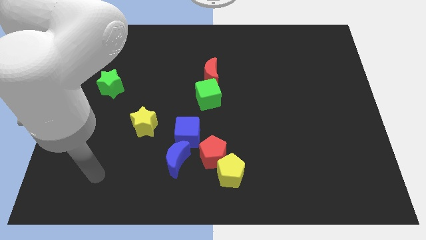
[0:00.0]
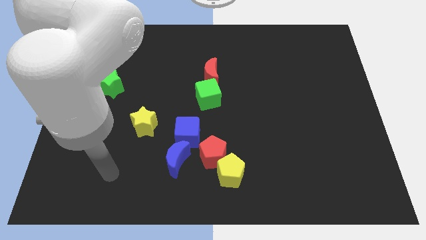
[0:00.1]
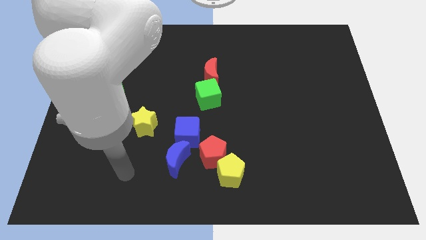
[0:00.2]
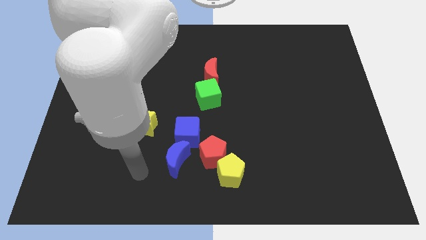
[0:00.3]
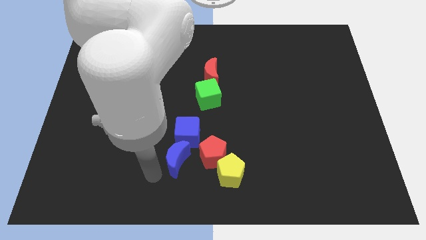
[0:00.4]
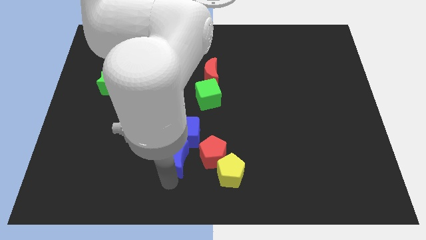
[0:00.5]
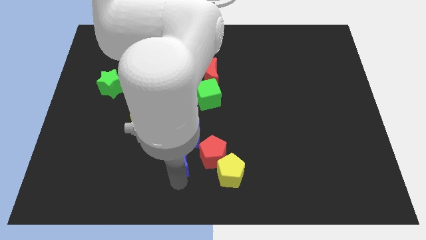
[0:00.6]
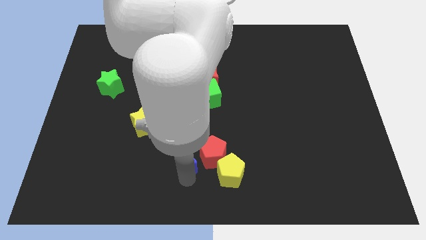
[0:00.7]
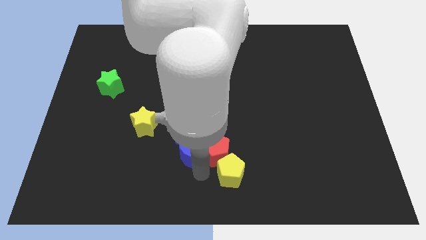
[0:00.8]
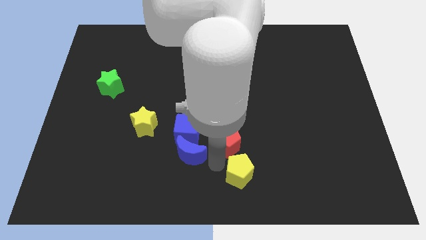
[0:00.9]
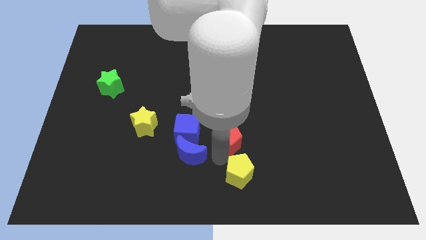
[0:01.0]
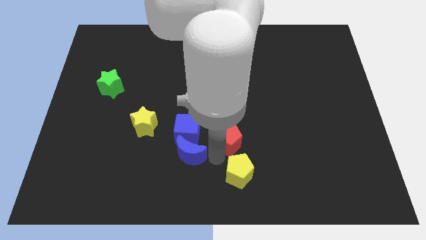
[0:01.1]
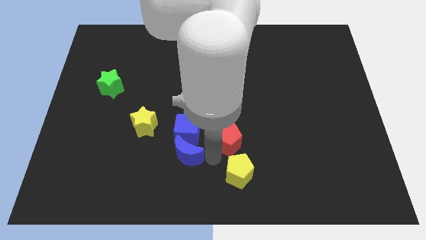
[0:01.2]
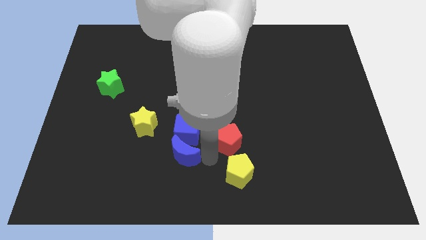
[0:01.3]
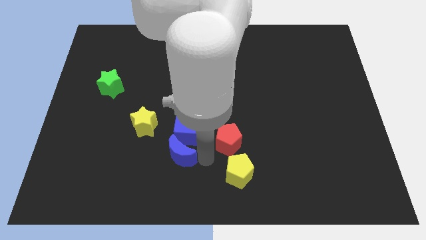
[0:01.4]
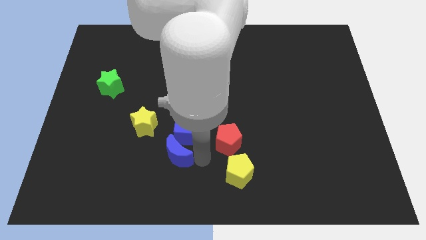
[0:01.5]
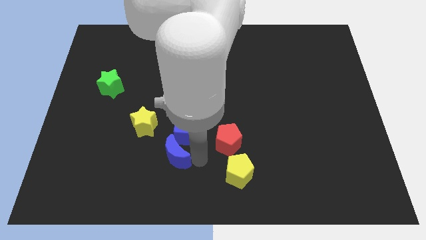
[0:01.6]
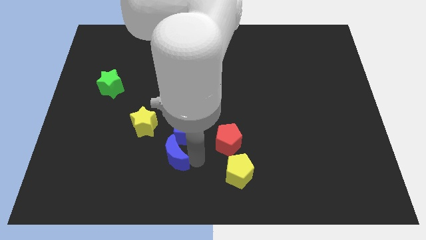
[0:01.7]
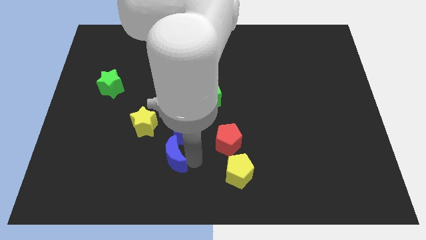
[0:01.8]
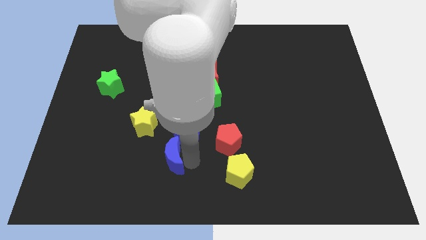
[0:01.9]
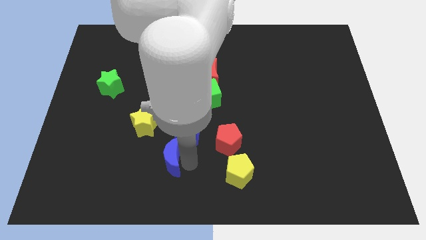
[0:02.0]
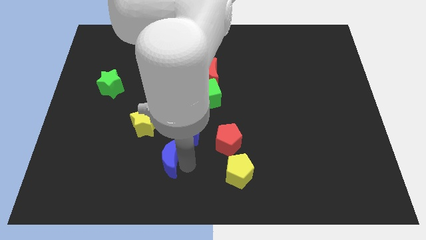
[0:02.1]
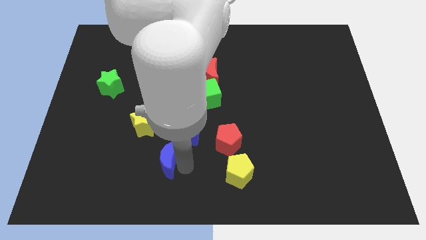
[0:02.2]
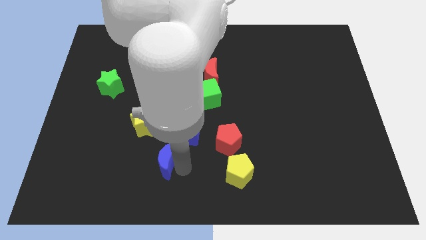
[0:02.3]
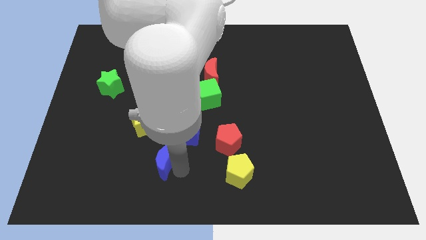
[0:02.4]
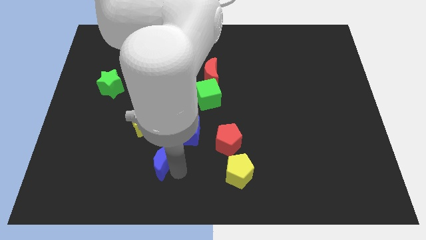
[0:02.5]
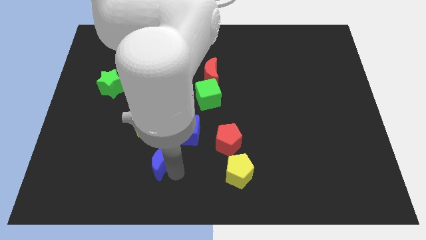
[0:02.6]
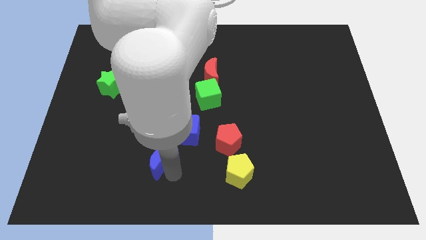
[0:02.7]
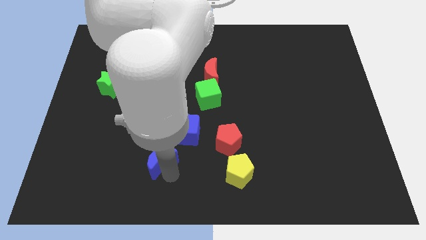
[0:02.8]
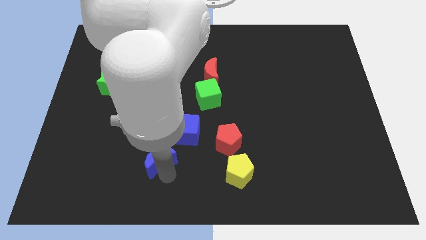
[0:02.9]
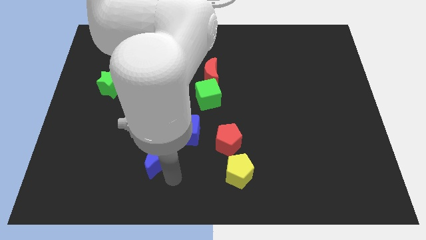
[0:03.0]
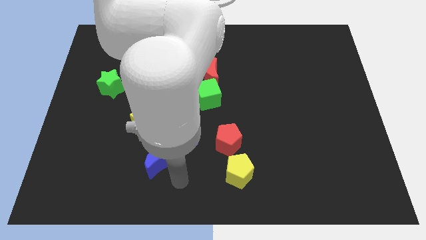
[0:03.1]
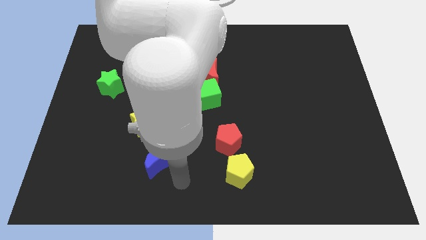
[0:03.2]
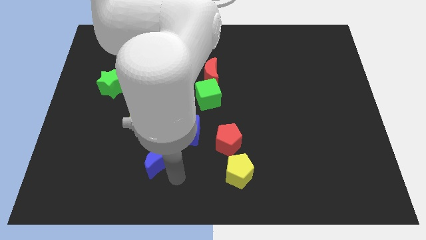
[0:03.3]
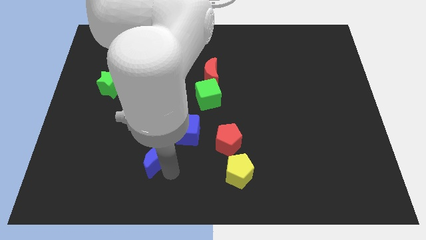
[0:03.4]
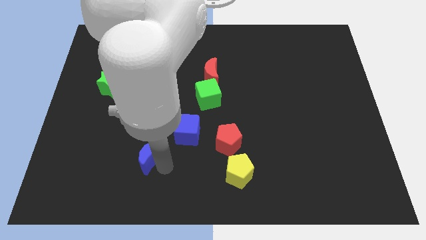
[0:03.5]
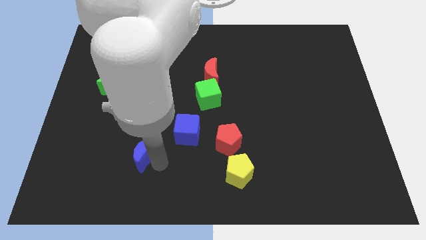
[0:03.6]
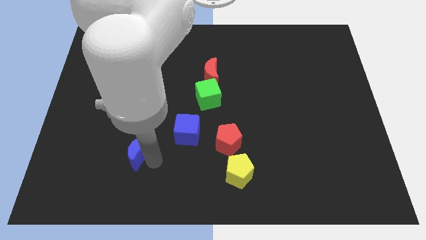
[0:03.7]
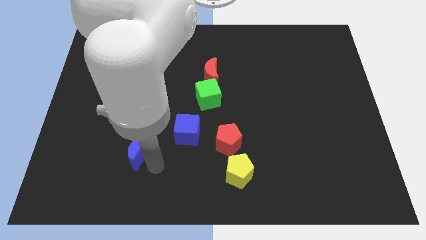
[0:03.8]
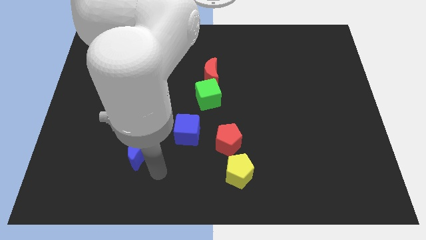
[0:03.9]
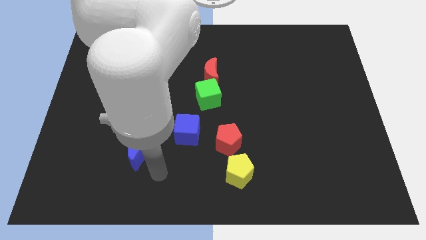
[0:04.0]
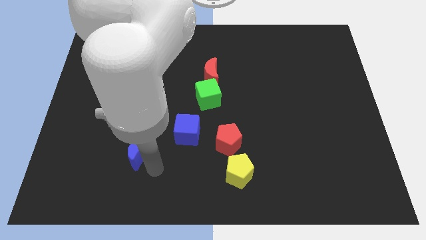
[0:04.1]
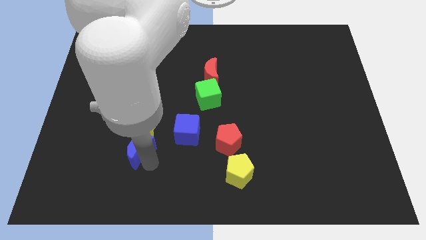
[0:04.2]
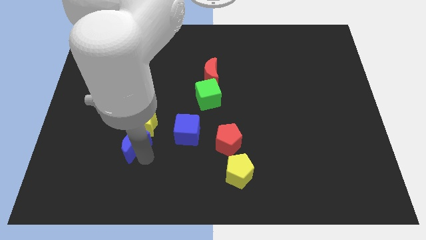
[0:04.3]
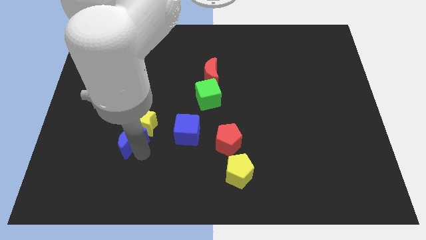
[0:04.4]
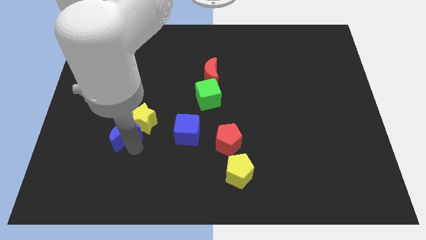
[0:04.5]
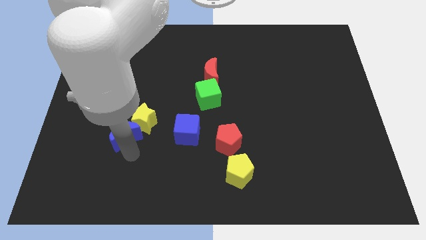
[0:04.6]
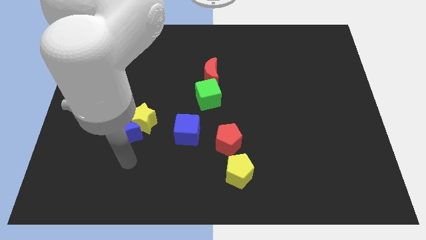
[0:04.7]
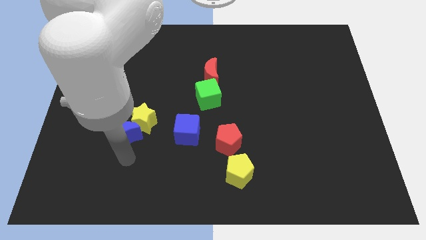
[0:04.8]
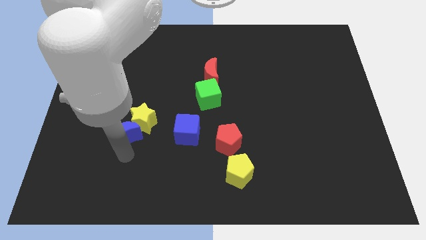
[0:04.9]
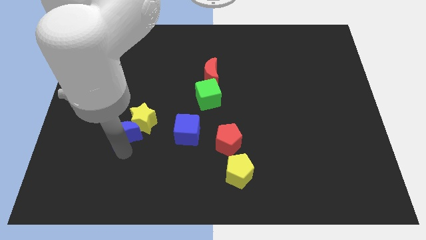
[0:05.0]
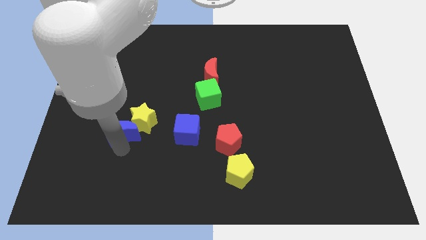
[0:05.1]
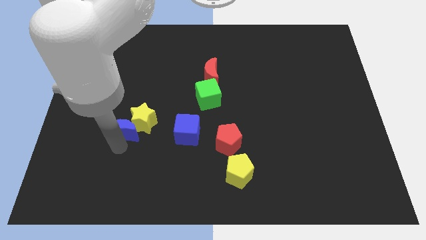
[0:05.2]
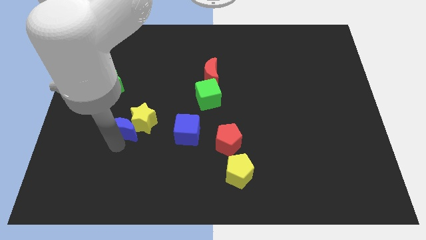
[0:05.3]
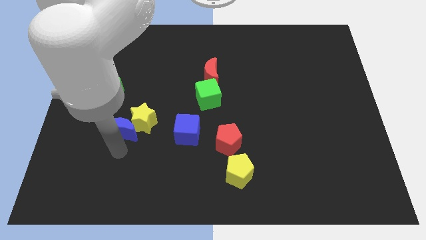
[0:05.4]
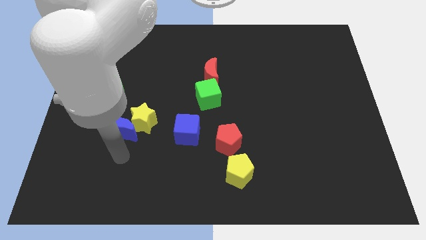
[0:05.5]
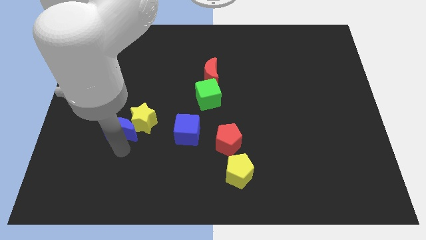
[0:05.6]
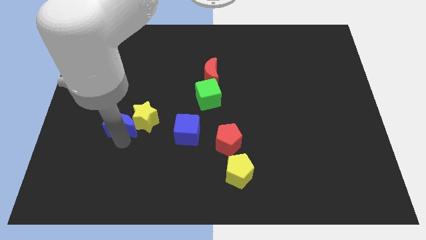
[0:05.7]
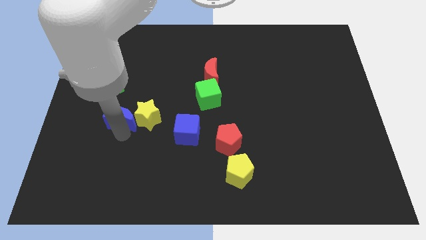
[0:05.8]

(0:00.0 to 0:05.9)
move the blue moon to the top left of the yellow star

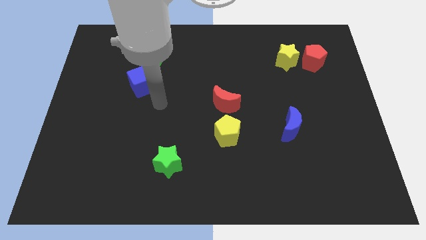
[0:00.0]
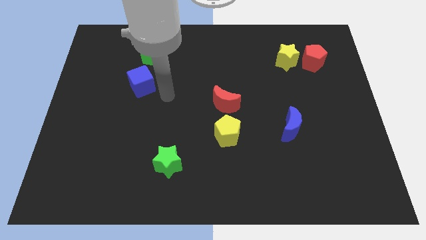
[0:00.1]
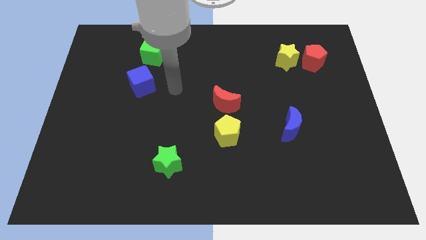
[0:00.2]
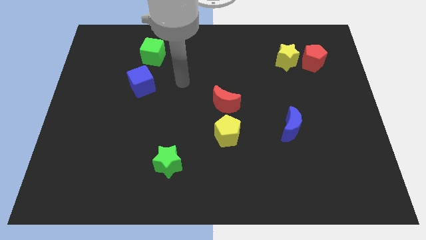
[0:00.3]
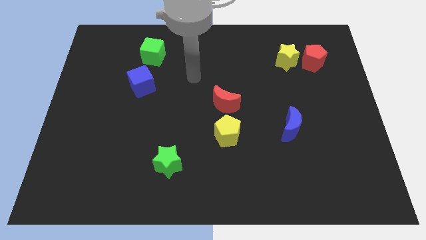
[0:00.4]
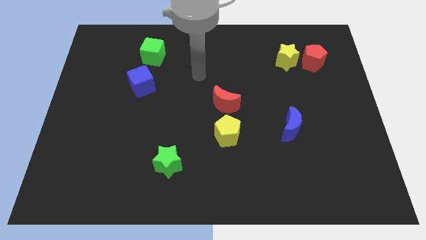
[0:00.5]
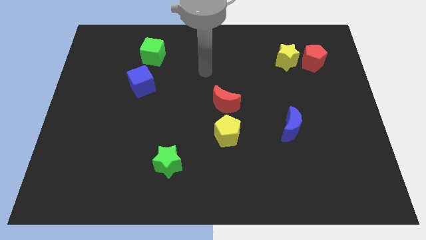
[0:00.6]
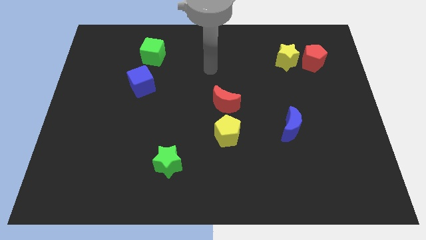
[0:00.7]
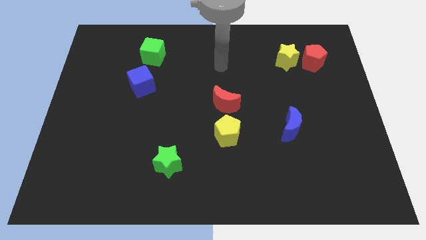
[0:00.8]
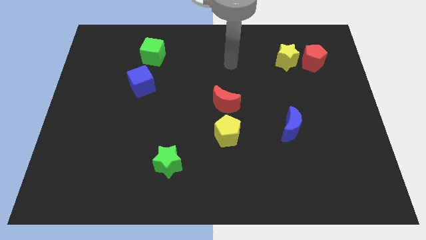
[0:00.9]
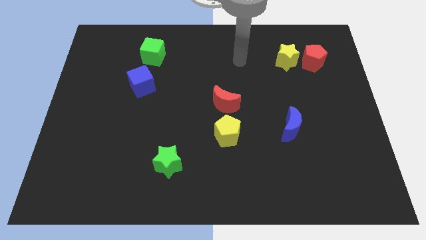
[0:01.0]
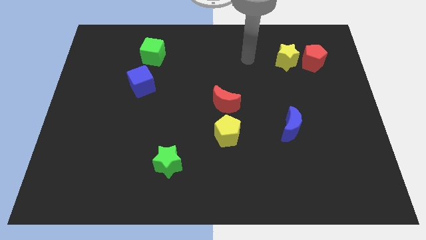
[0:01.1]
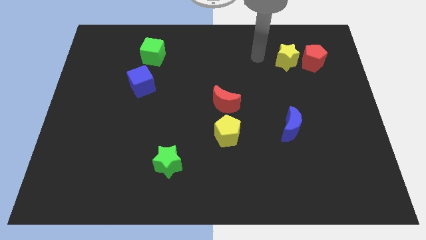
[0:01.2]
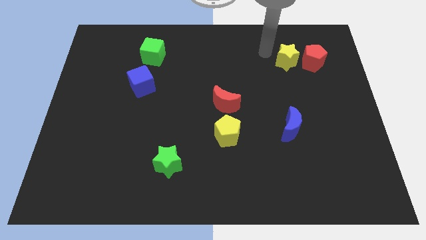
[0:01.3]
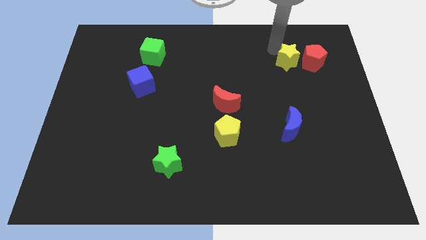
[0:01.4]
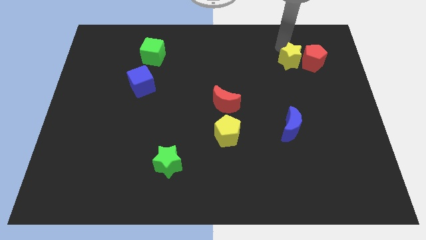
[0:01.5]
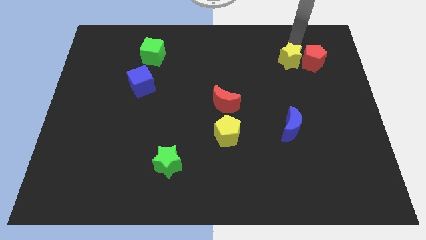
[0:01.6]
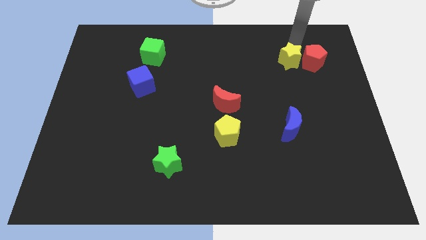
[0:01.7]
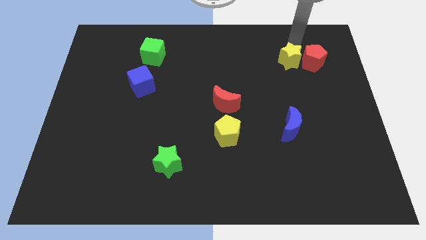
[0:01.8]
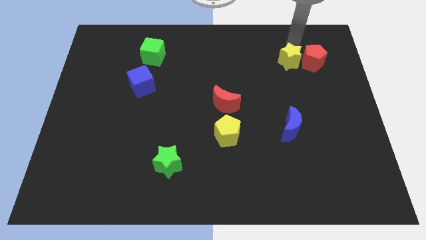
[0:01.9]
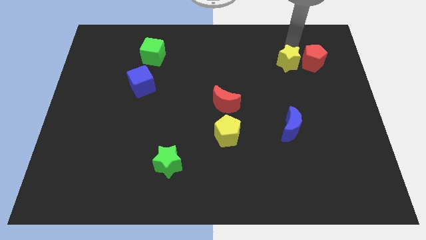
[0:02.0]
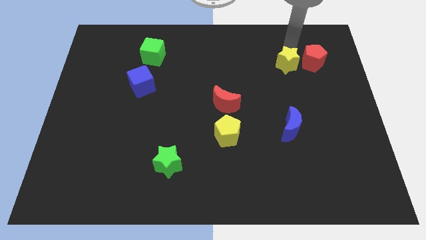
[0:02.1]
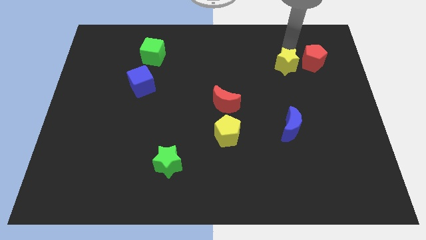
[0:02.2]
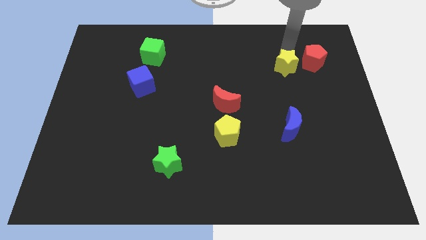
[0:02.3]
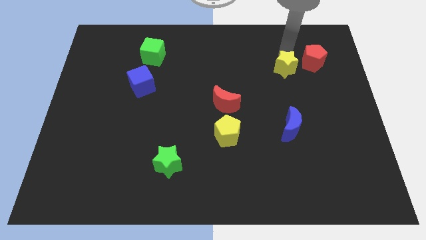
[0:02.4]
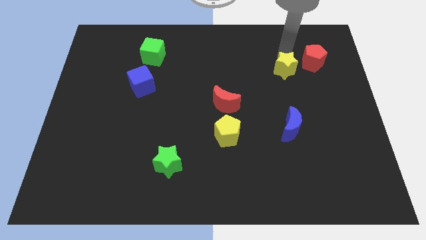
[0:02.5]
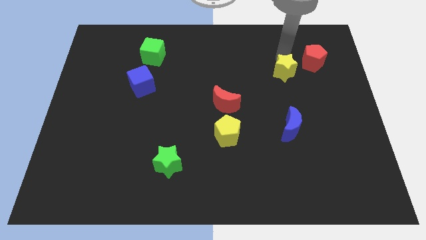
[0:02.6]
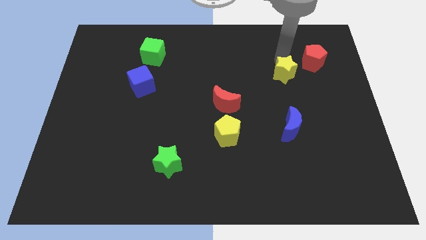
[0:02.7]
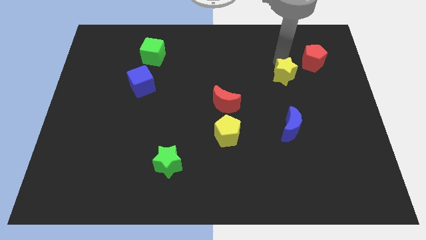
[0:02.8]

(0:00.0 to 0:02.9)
slide the yellow star above the blue moon
